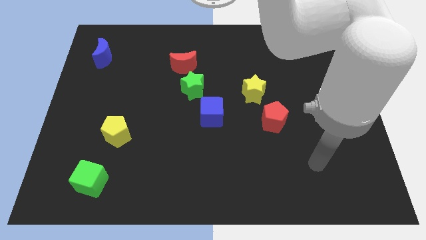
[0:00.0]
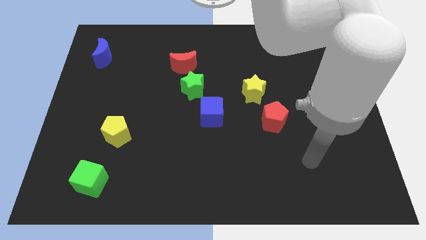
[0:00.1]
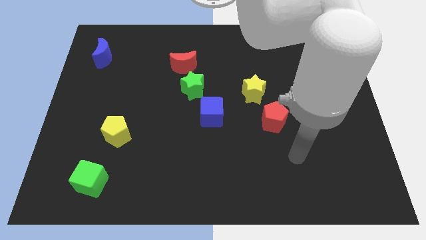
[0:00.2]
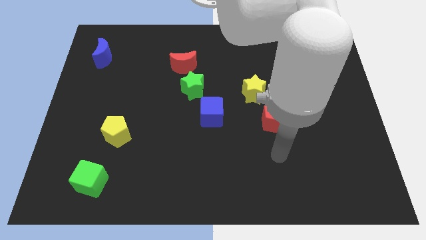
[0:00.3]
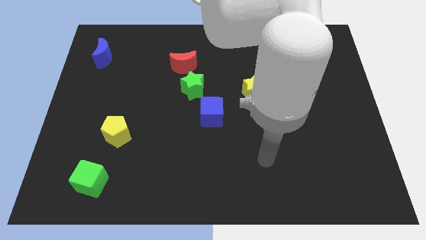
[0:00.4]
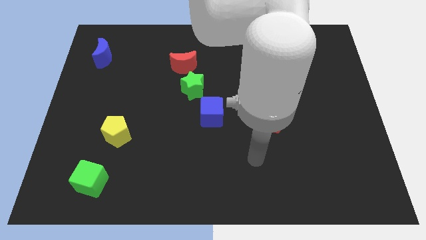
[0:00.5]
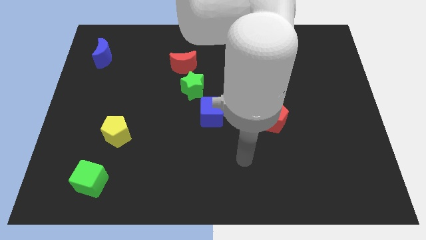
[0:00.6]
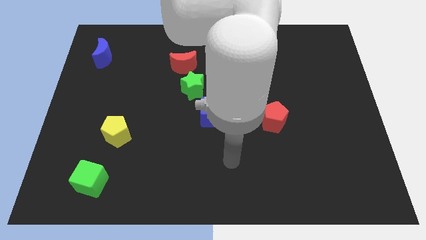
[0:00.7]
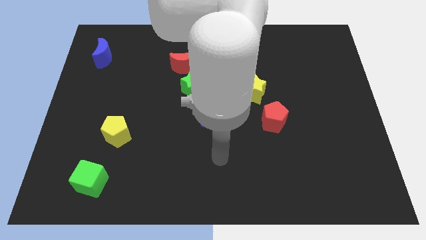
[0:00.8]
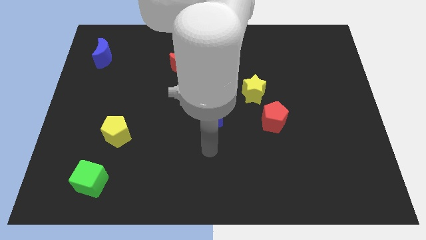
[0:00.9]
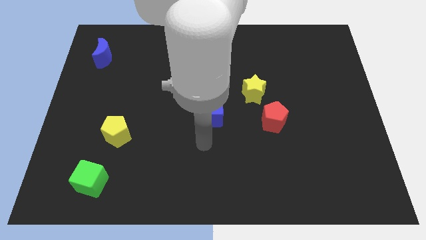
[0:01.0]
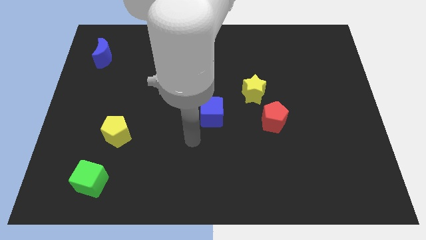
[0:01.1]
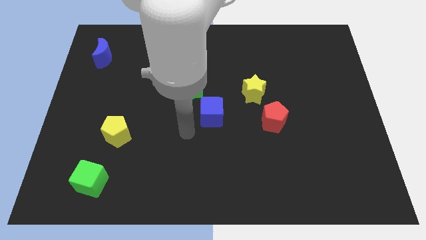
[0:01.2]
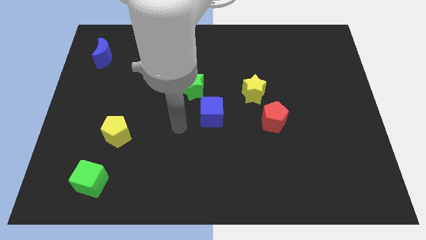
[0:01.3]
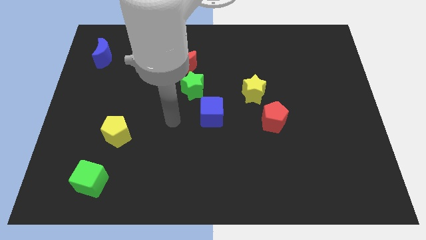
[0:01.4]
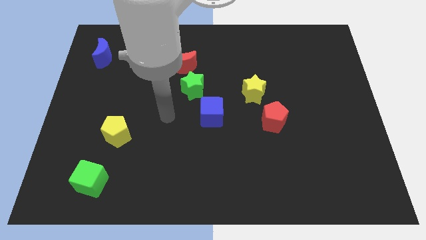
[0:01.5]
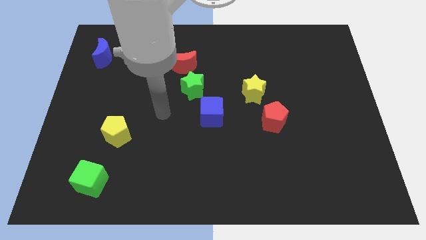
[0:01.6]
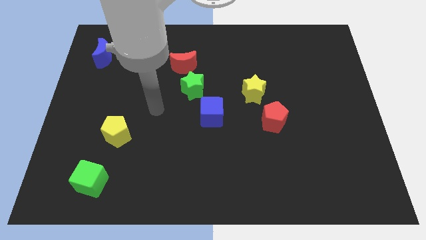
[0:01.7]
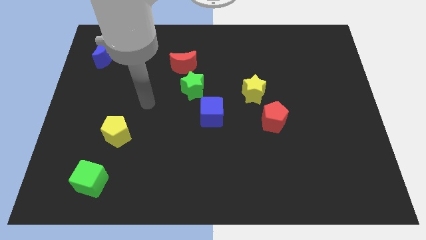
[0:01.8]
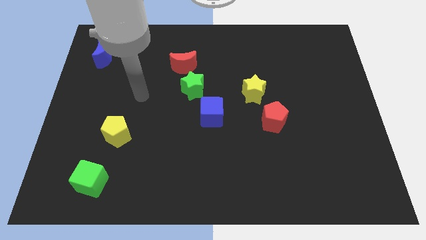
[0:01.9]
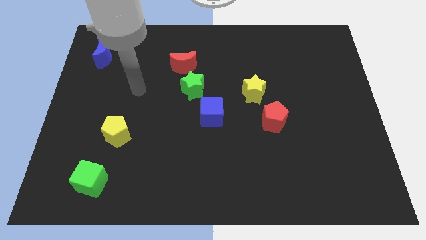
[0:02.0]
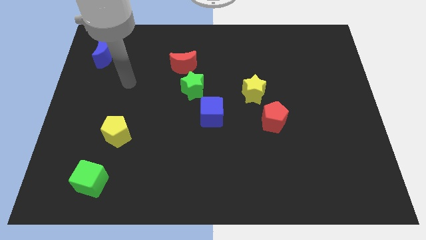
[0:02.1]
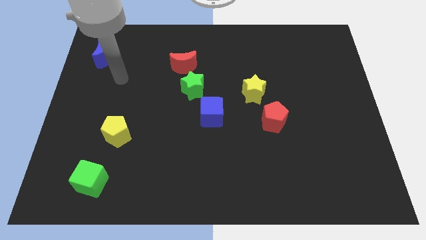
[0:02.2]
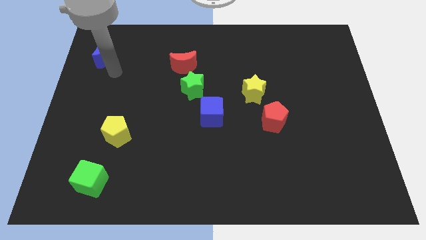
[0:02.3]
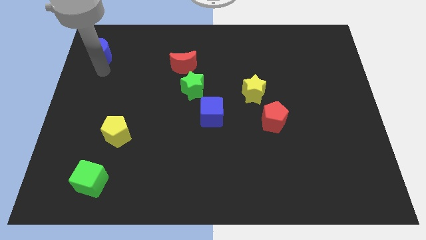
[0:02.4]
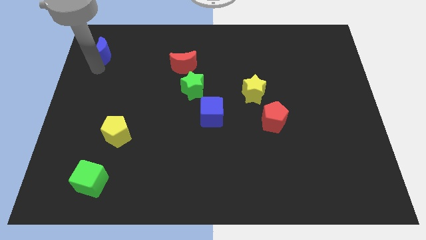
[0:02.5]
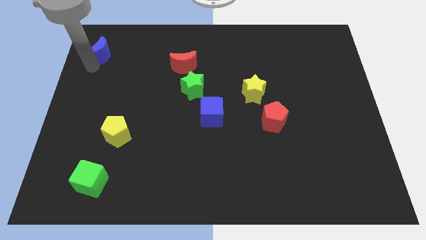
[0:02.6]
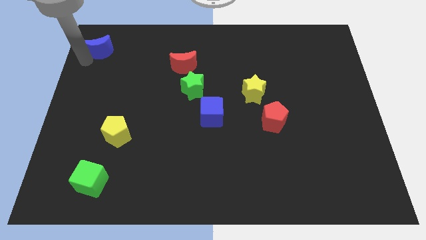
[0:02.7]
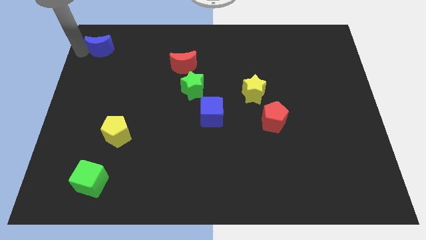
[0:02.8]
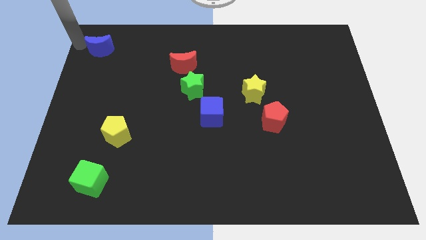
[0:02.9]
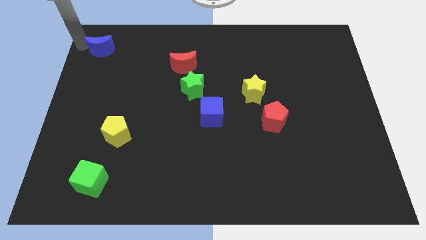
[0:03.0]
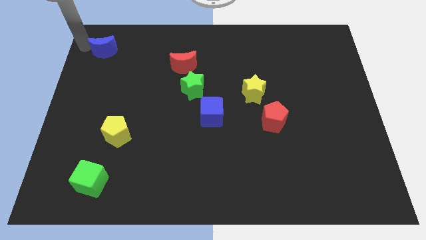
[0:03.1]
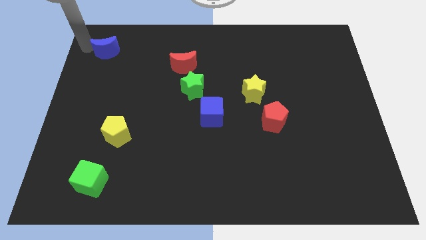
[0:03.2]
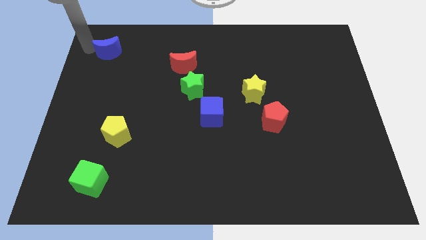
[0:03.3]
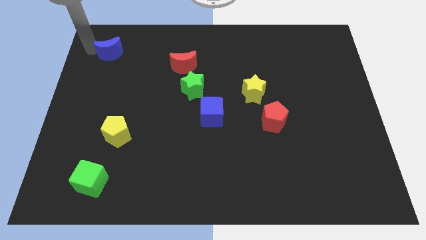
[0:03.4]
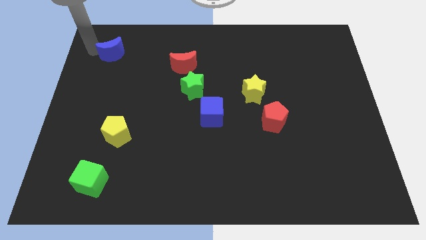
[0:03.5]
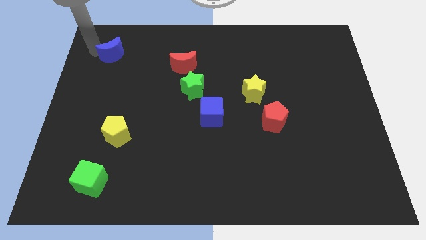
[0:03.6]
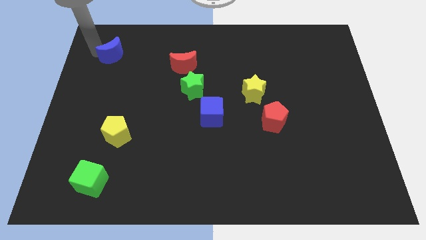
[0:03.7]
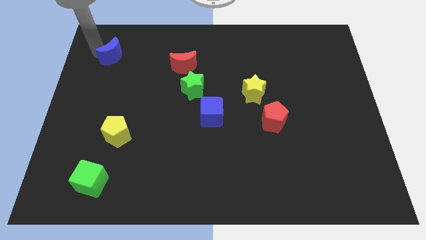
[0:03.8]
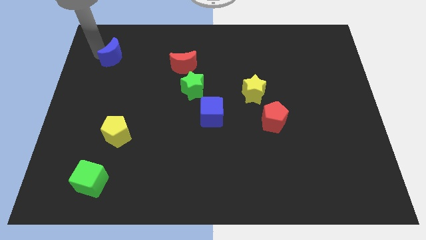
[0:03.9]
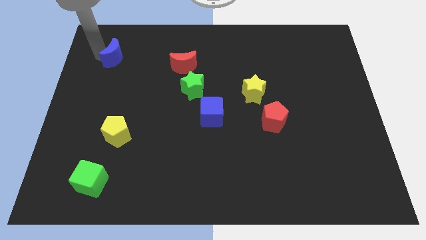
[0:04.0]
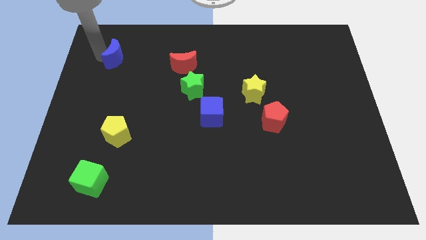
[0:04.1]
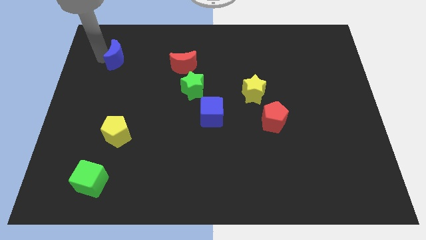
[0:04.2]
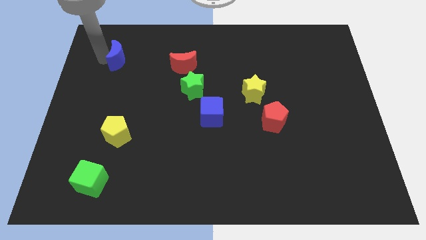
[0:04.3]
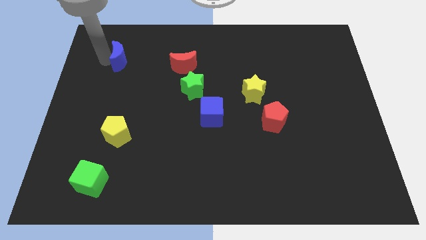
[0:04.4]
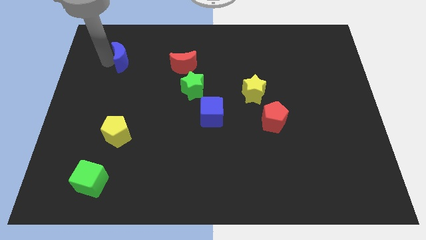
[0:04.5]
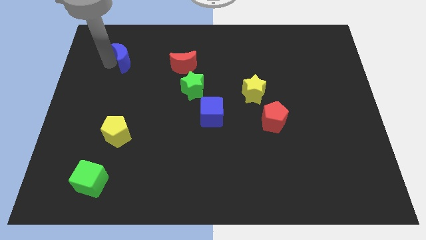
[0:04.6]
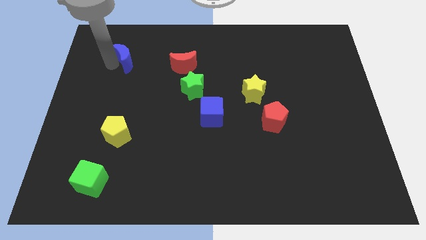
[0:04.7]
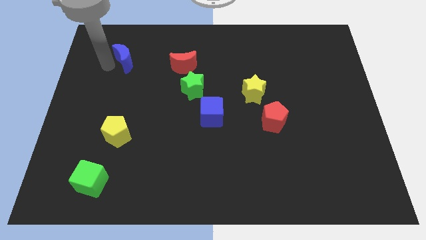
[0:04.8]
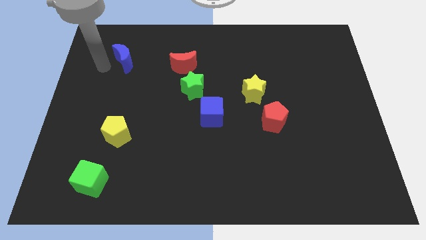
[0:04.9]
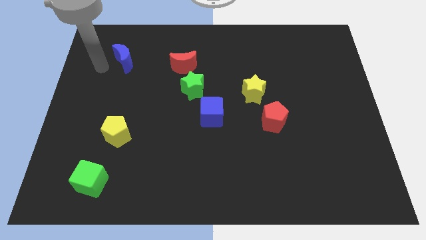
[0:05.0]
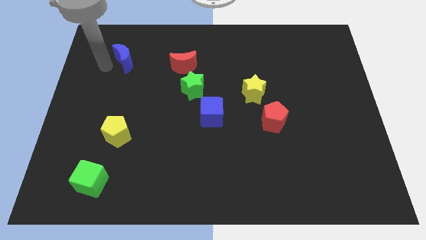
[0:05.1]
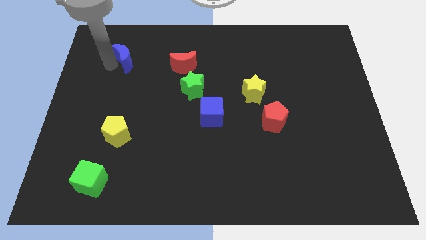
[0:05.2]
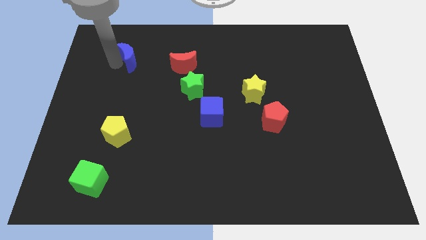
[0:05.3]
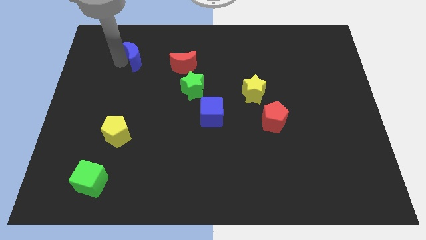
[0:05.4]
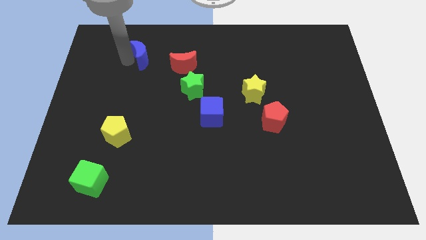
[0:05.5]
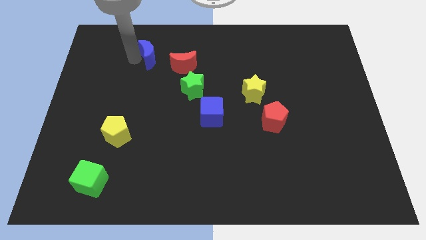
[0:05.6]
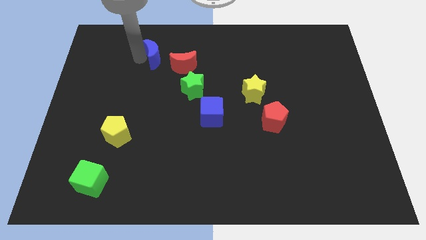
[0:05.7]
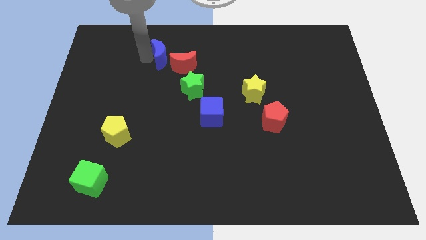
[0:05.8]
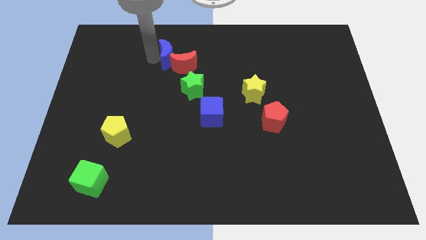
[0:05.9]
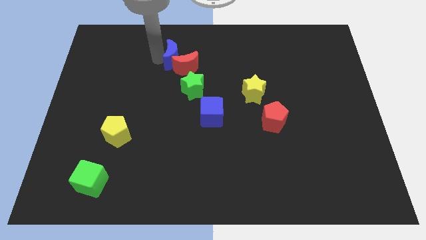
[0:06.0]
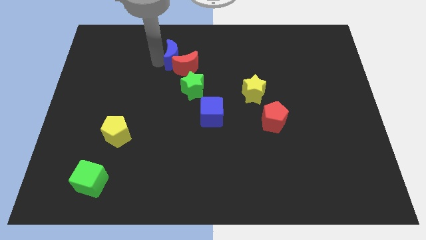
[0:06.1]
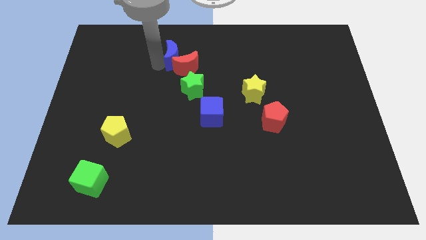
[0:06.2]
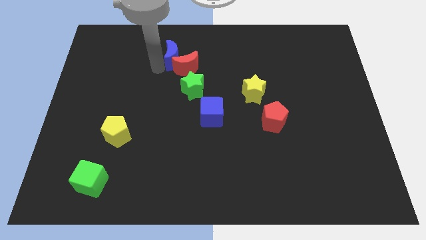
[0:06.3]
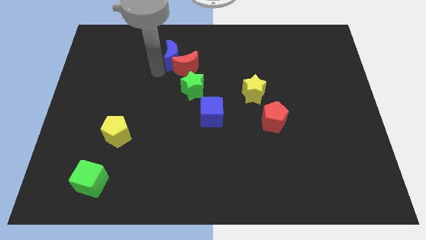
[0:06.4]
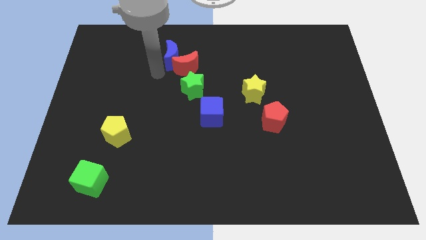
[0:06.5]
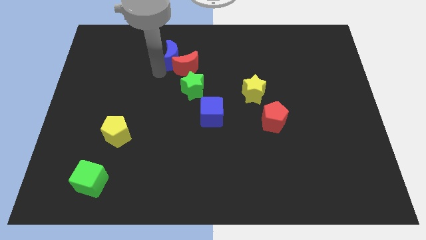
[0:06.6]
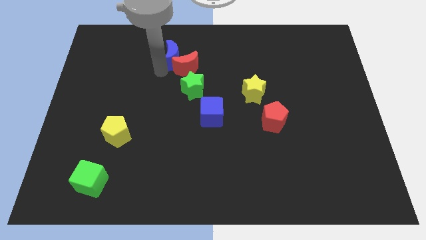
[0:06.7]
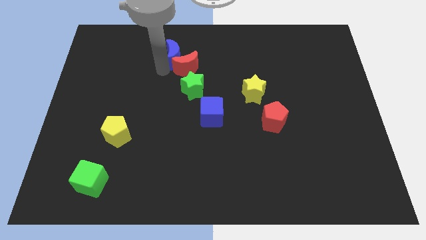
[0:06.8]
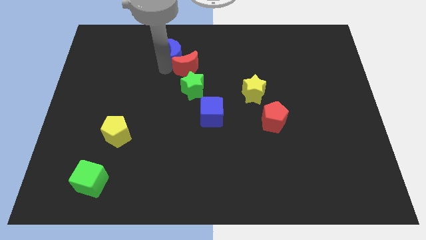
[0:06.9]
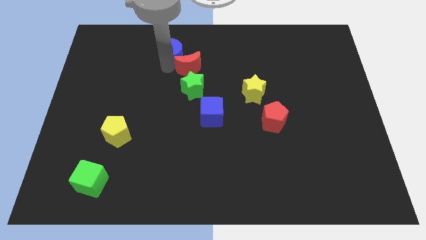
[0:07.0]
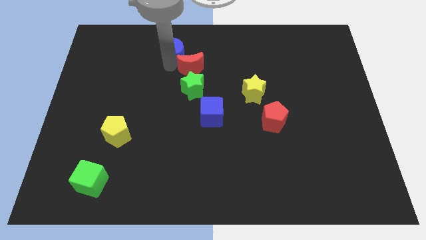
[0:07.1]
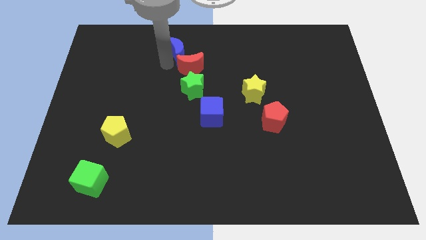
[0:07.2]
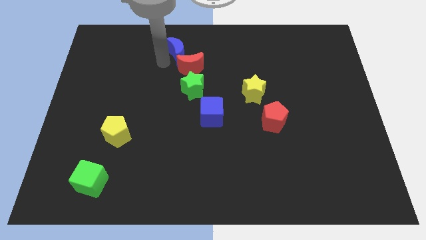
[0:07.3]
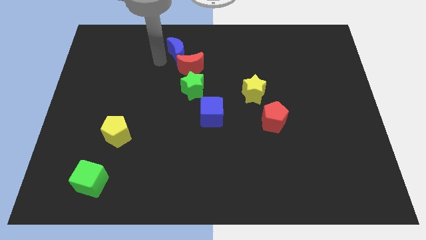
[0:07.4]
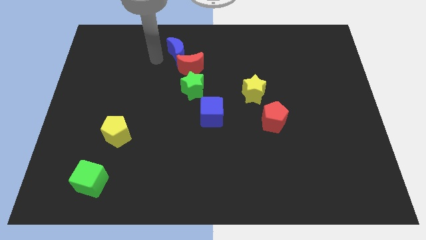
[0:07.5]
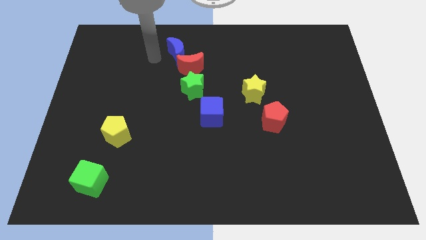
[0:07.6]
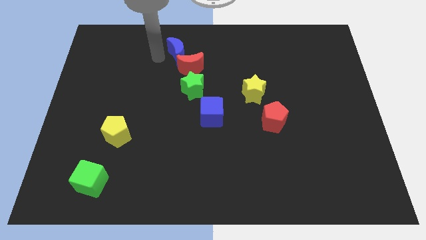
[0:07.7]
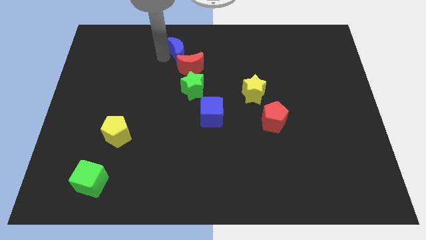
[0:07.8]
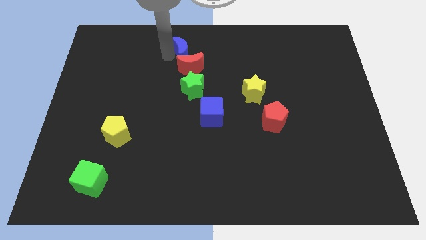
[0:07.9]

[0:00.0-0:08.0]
slide the blue moon to the right
